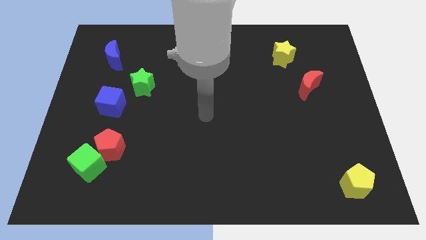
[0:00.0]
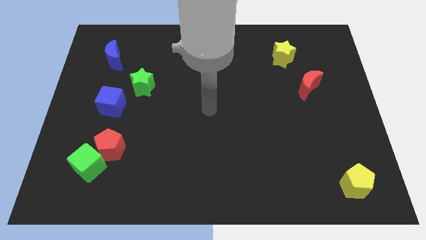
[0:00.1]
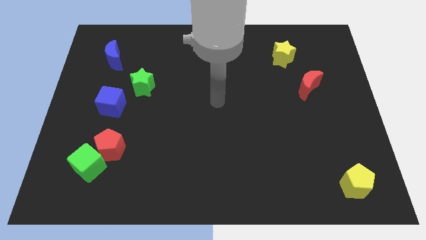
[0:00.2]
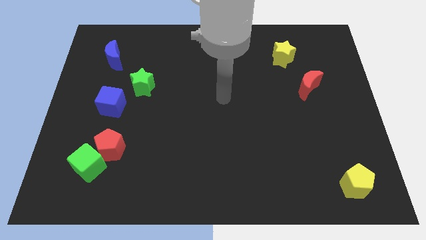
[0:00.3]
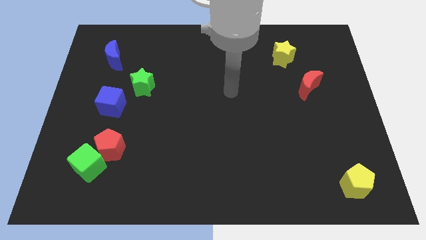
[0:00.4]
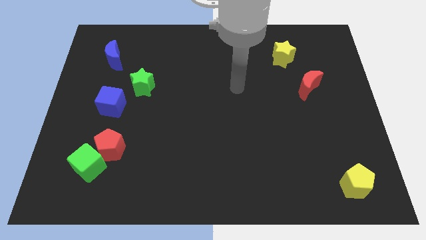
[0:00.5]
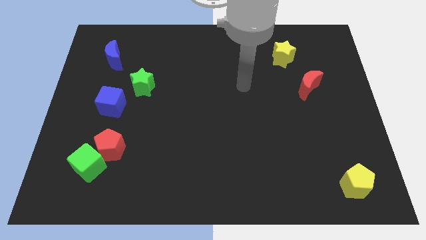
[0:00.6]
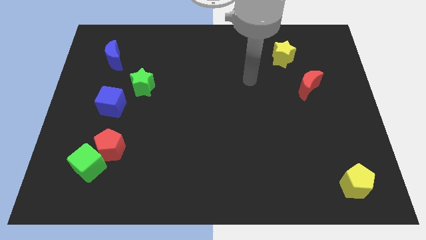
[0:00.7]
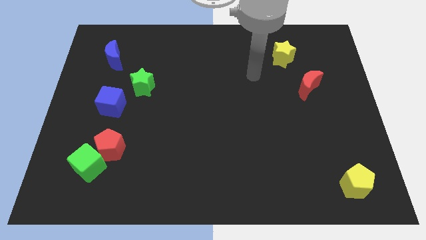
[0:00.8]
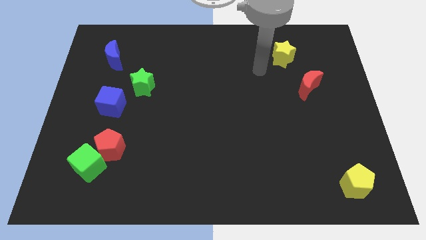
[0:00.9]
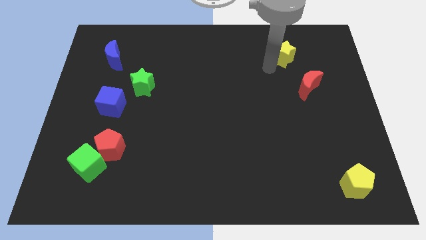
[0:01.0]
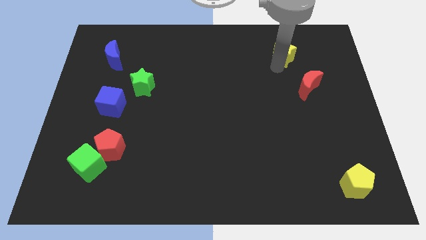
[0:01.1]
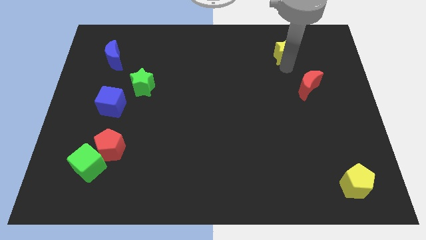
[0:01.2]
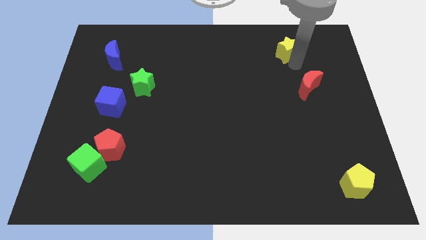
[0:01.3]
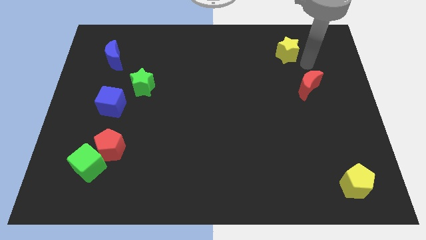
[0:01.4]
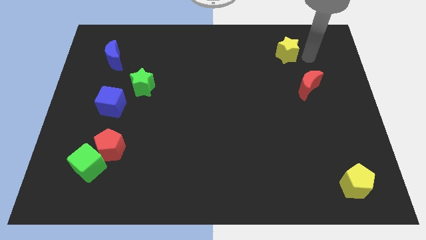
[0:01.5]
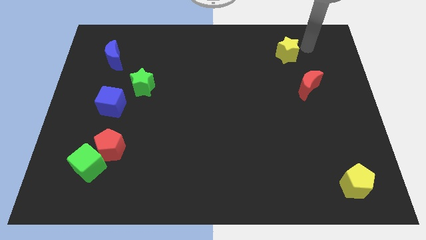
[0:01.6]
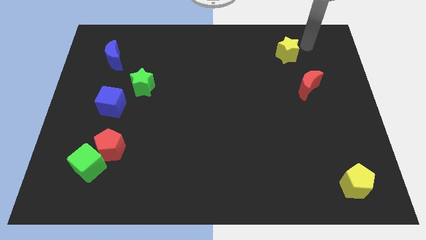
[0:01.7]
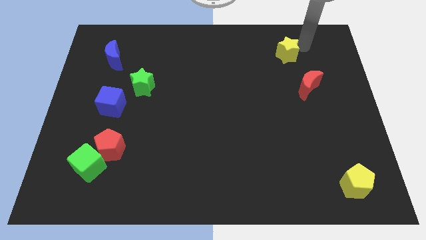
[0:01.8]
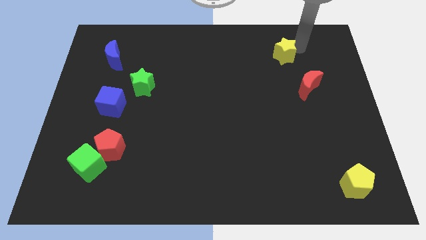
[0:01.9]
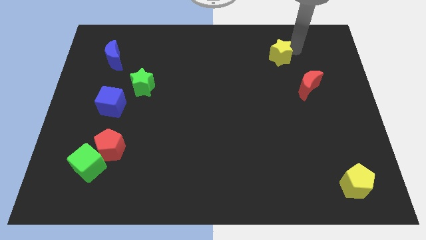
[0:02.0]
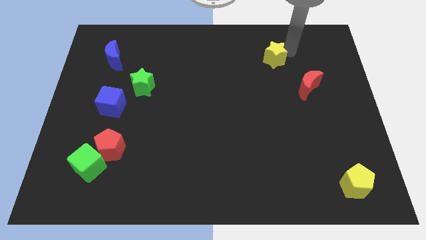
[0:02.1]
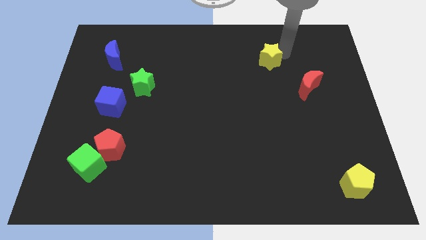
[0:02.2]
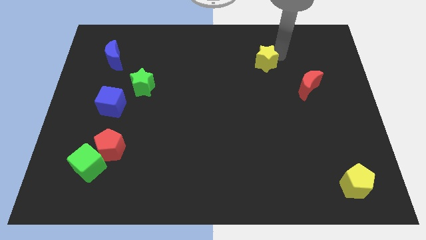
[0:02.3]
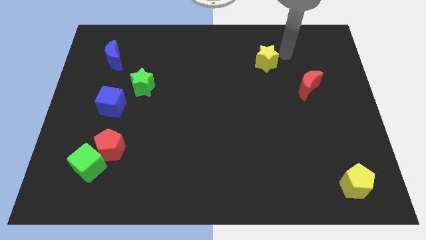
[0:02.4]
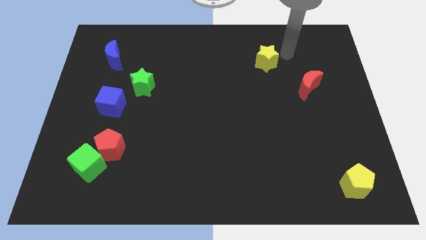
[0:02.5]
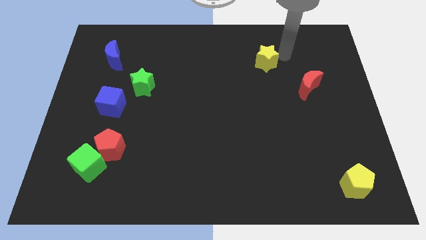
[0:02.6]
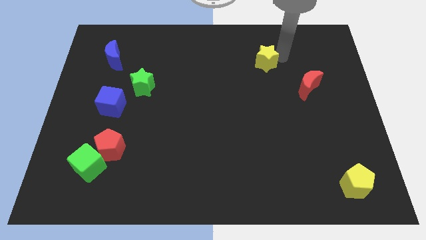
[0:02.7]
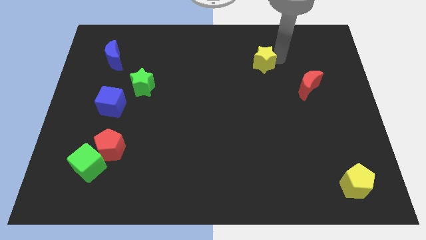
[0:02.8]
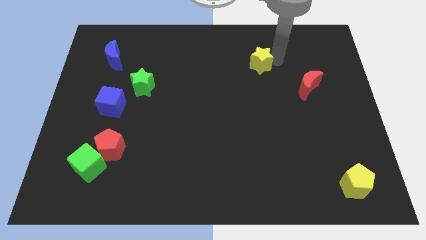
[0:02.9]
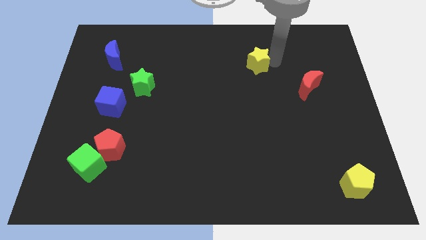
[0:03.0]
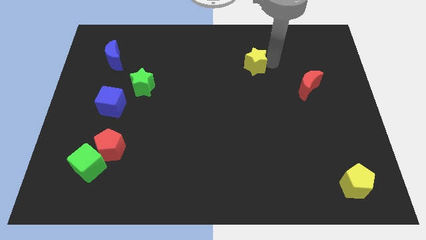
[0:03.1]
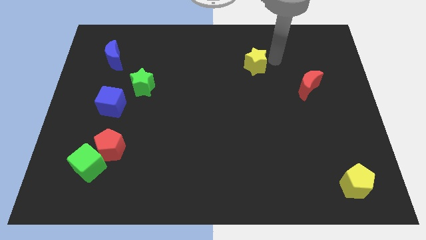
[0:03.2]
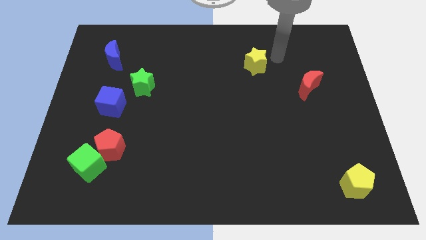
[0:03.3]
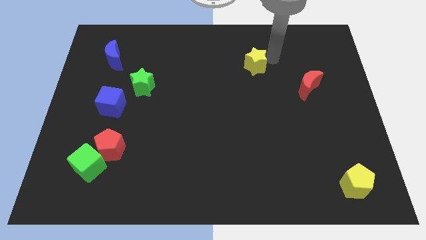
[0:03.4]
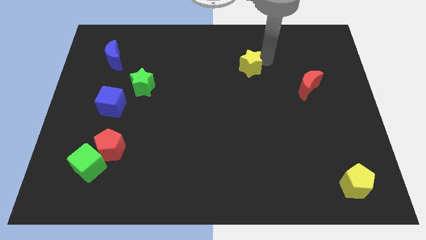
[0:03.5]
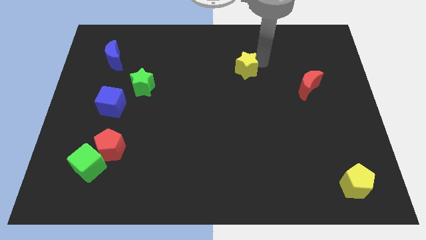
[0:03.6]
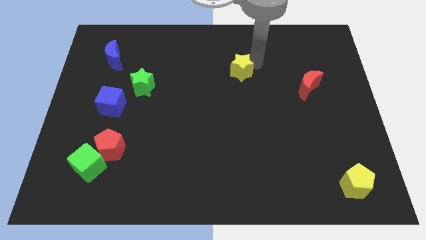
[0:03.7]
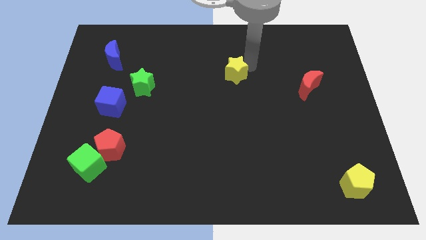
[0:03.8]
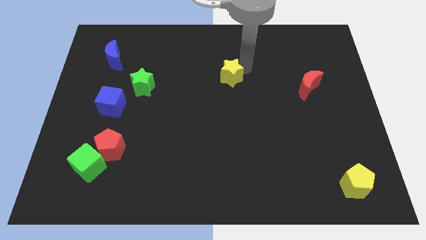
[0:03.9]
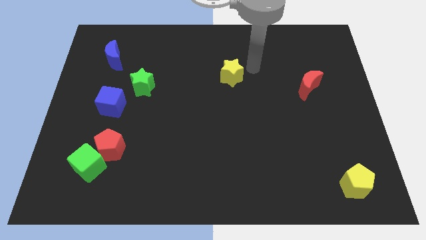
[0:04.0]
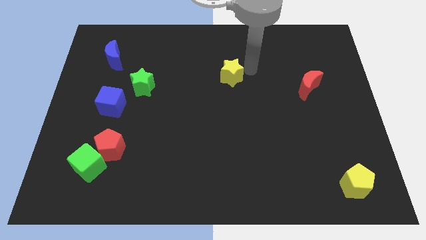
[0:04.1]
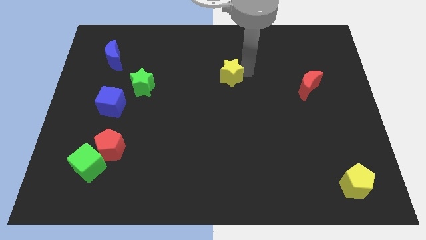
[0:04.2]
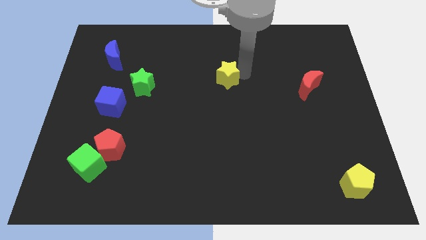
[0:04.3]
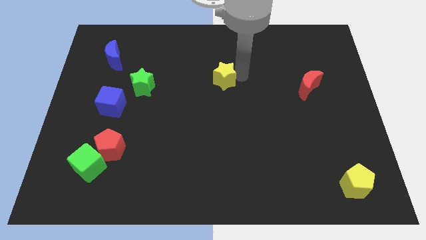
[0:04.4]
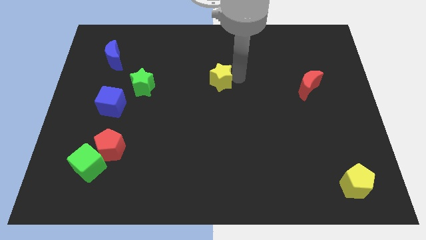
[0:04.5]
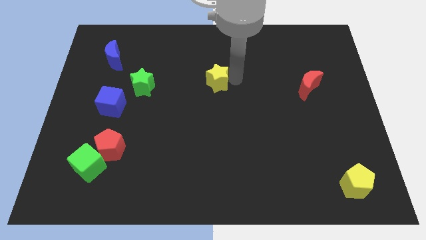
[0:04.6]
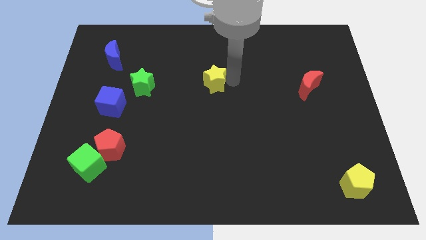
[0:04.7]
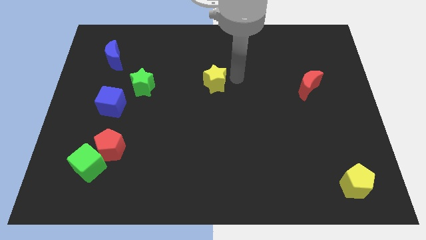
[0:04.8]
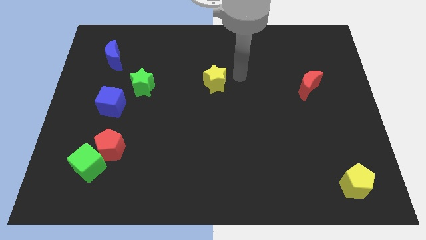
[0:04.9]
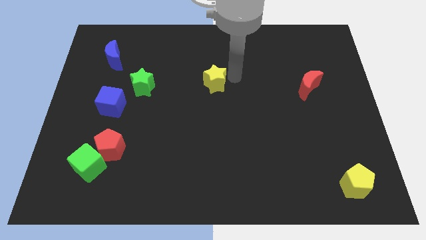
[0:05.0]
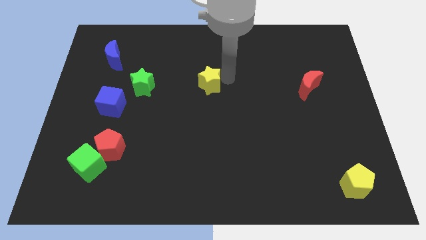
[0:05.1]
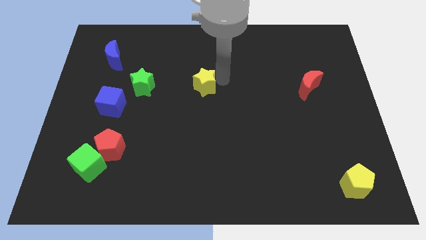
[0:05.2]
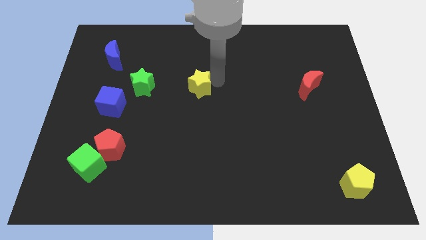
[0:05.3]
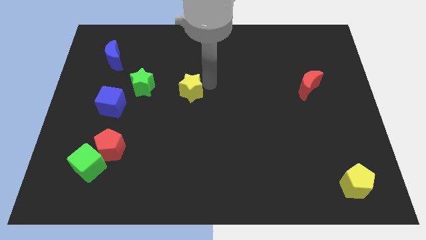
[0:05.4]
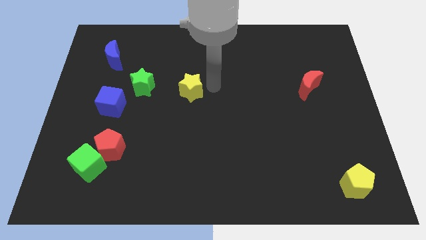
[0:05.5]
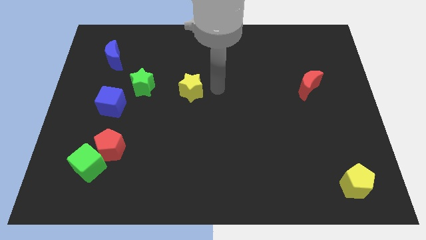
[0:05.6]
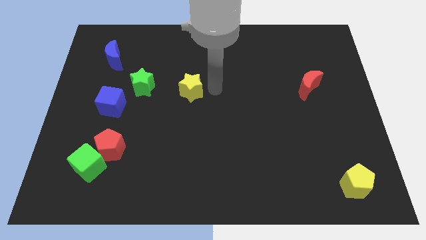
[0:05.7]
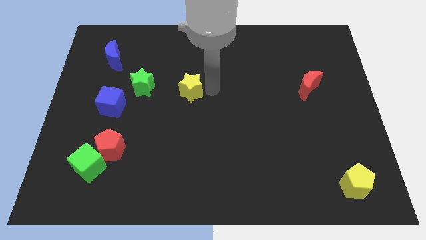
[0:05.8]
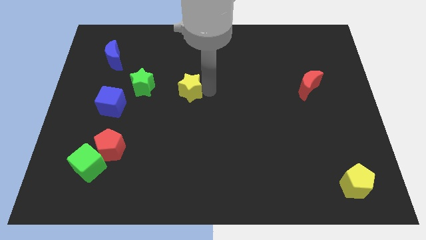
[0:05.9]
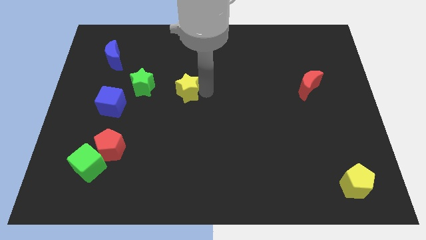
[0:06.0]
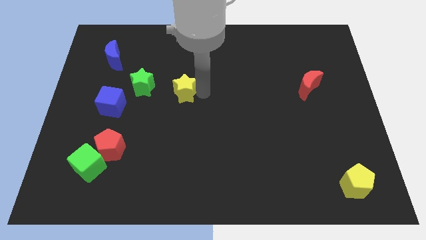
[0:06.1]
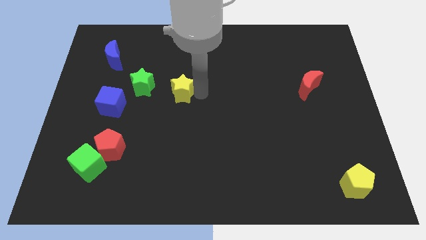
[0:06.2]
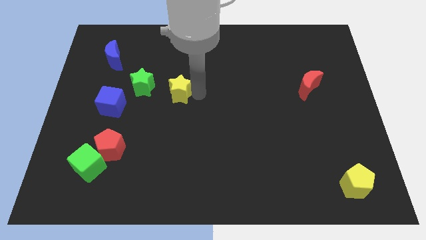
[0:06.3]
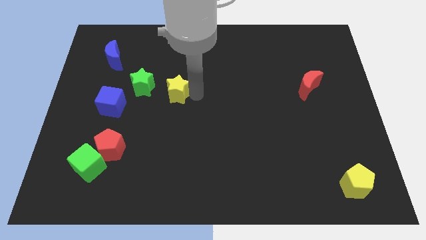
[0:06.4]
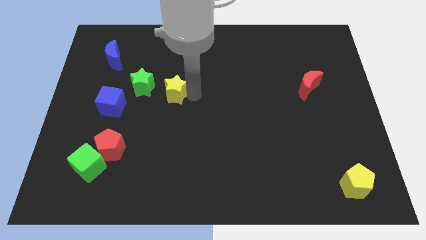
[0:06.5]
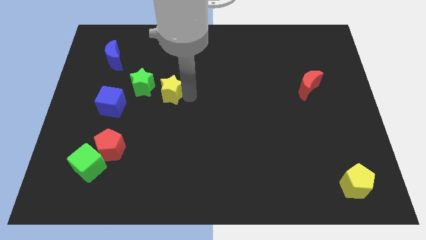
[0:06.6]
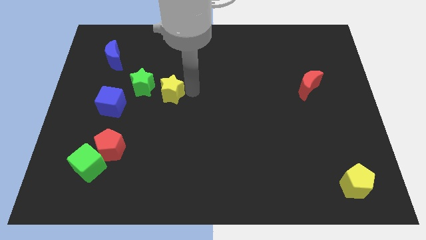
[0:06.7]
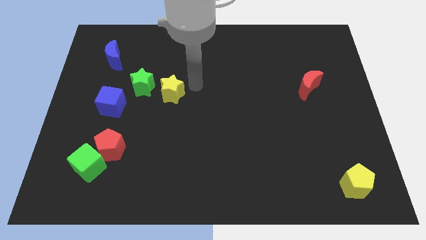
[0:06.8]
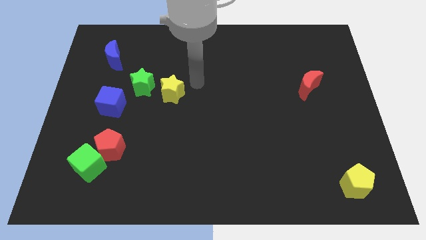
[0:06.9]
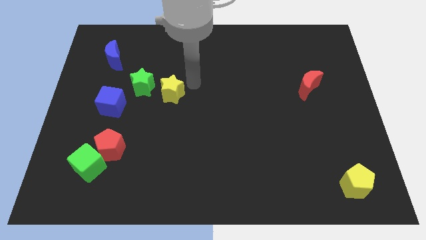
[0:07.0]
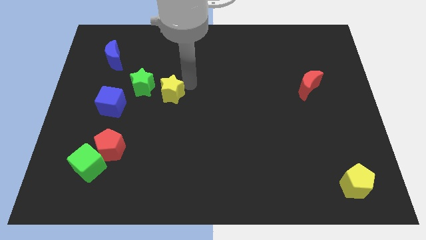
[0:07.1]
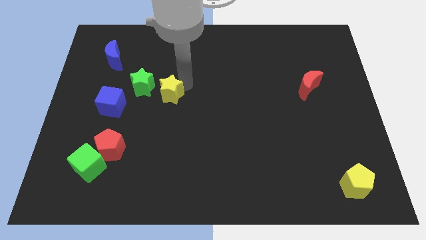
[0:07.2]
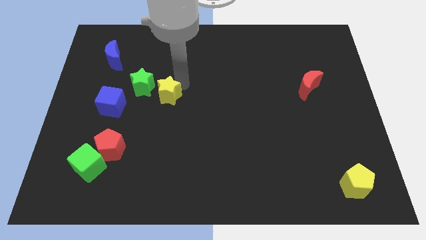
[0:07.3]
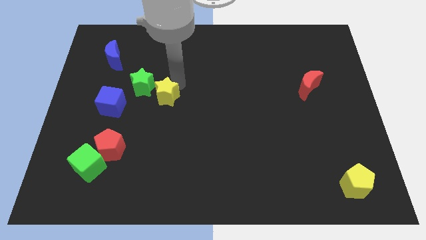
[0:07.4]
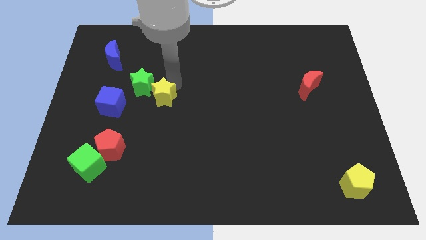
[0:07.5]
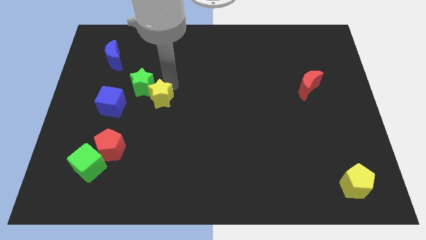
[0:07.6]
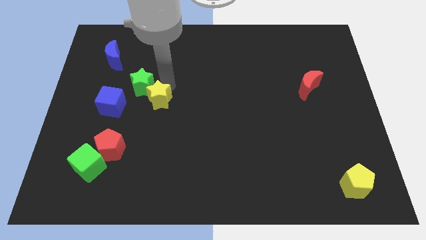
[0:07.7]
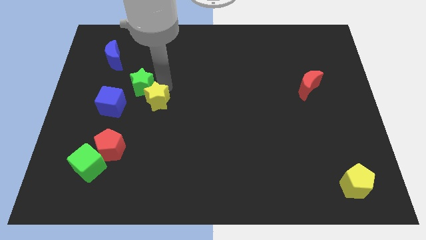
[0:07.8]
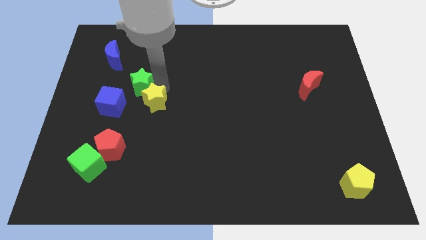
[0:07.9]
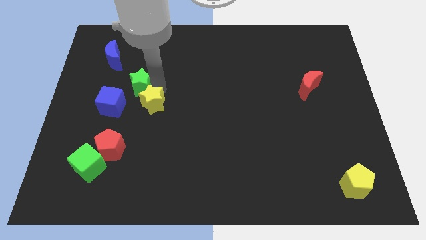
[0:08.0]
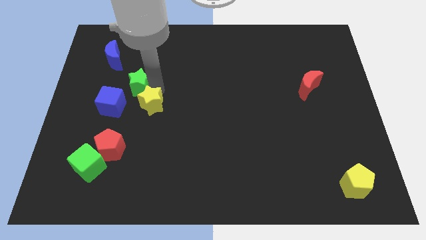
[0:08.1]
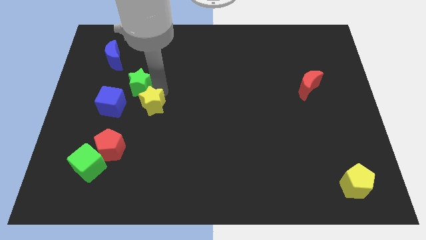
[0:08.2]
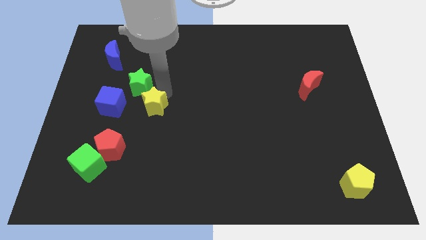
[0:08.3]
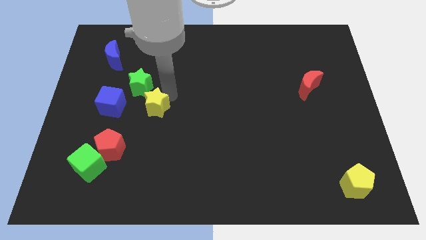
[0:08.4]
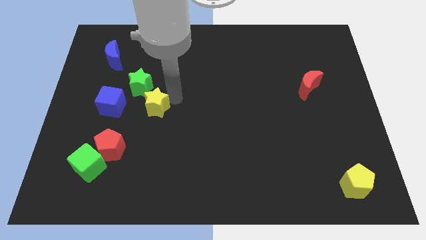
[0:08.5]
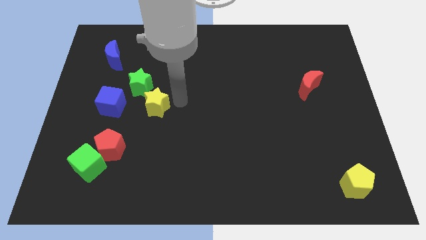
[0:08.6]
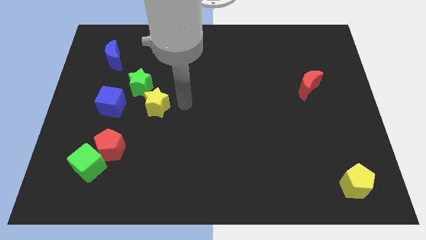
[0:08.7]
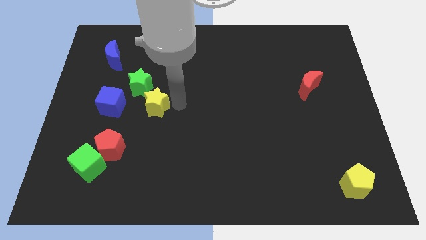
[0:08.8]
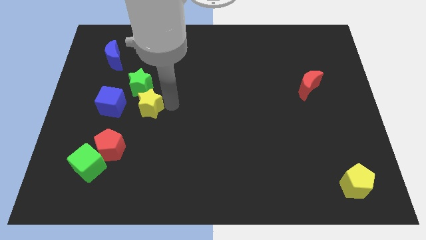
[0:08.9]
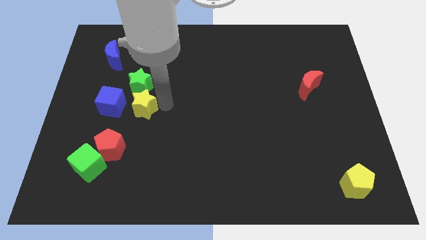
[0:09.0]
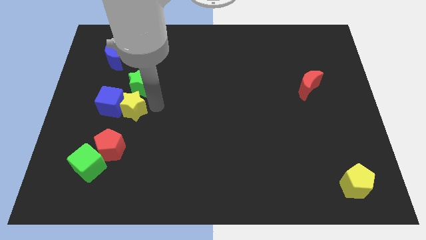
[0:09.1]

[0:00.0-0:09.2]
move the yellow star towards the blue cube
